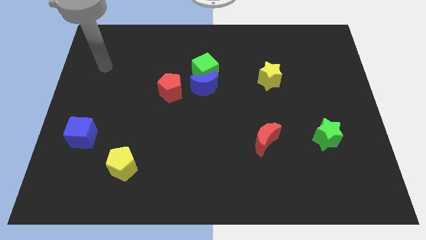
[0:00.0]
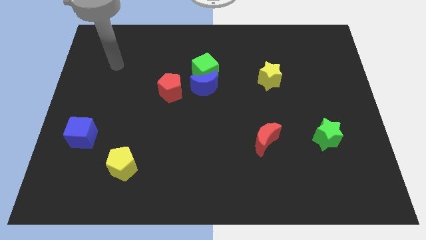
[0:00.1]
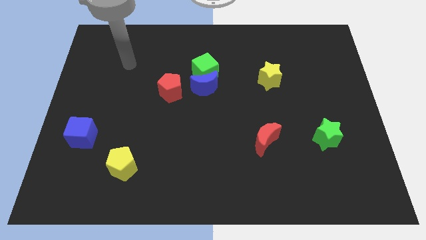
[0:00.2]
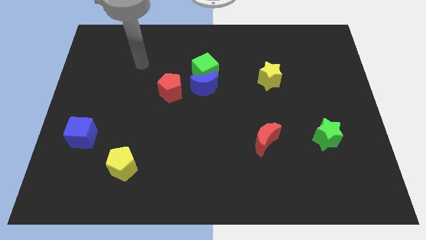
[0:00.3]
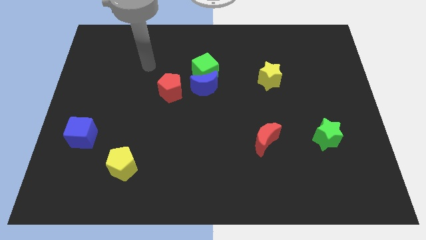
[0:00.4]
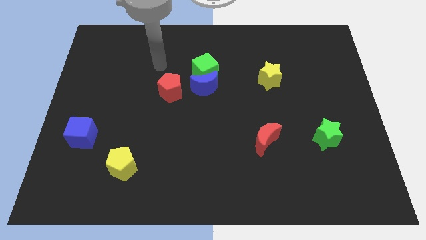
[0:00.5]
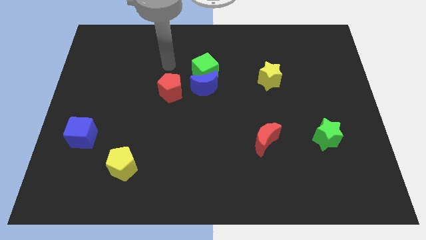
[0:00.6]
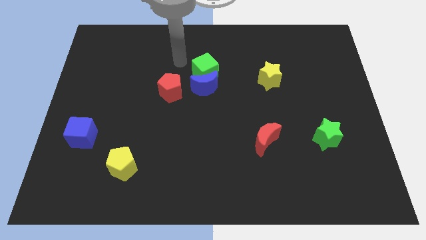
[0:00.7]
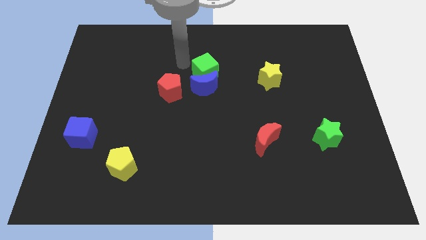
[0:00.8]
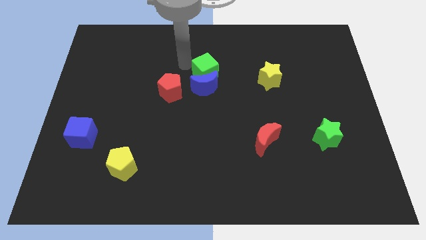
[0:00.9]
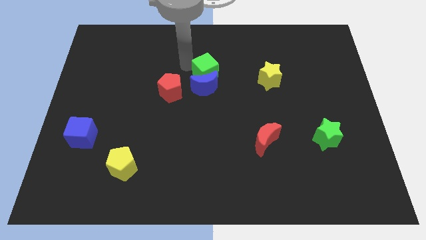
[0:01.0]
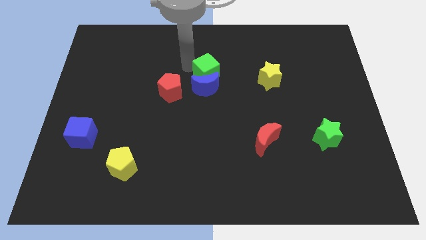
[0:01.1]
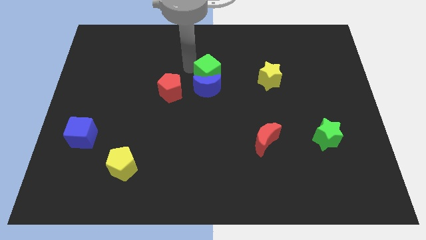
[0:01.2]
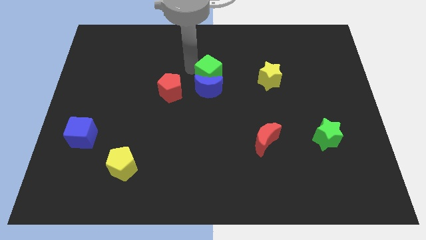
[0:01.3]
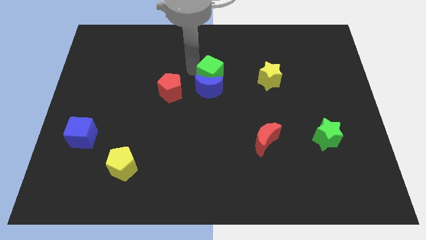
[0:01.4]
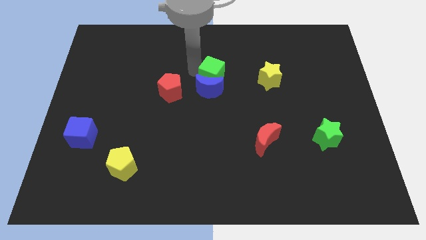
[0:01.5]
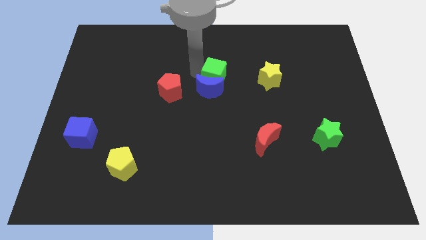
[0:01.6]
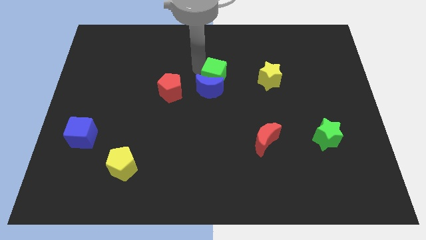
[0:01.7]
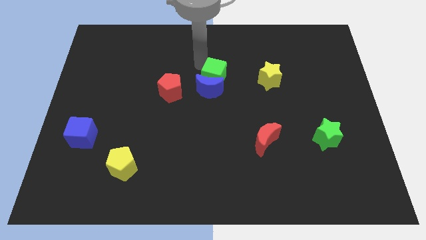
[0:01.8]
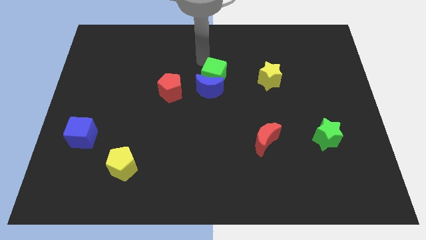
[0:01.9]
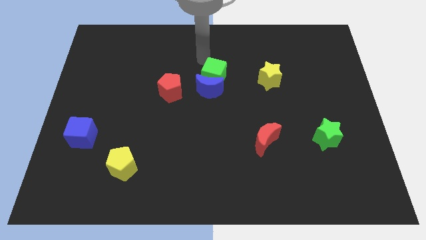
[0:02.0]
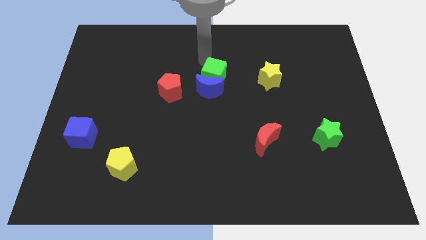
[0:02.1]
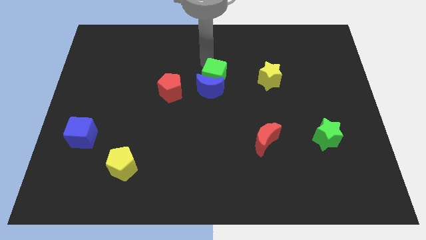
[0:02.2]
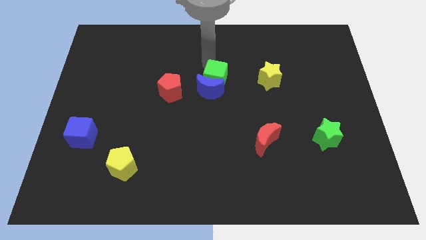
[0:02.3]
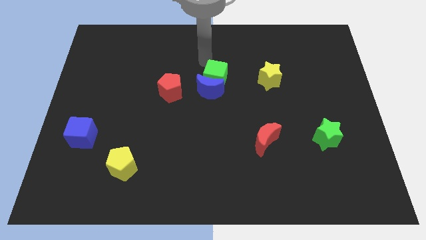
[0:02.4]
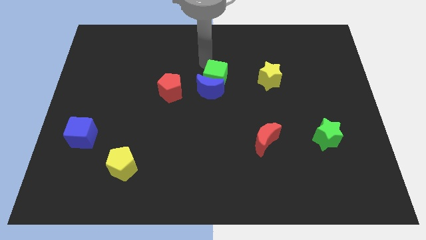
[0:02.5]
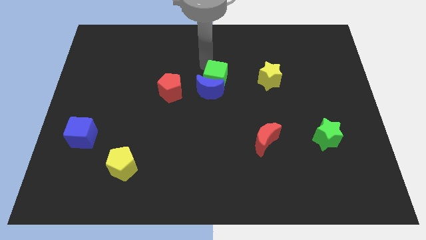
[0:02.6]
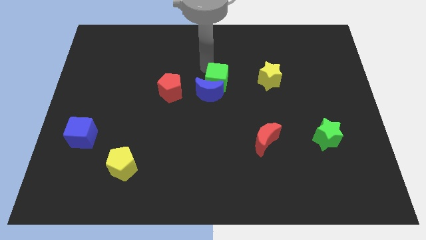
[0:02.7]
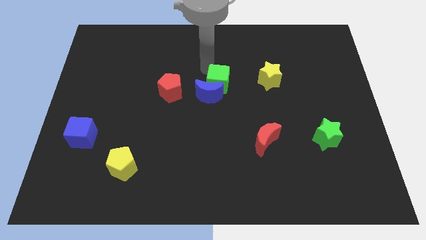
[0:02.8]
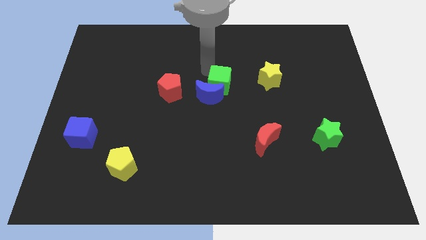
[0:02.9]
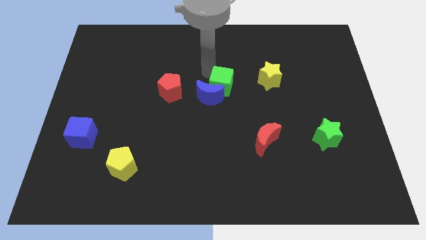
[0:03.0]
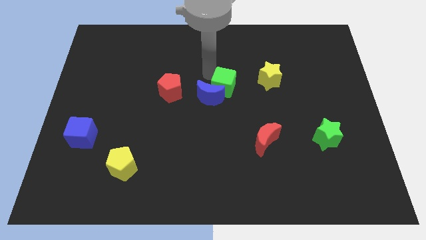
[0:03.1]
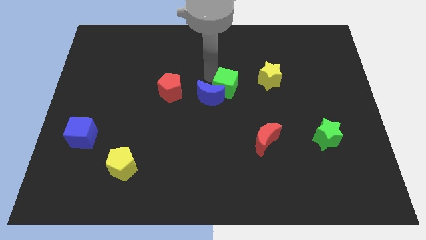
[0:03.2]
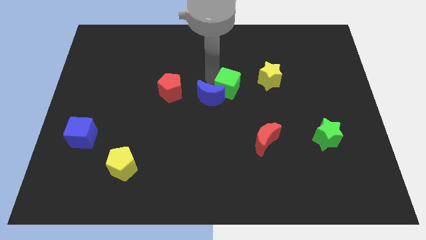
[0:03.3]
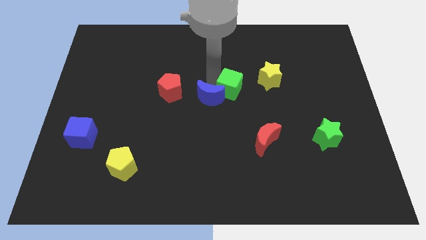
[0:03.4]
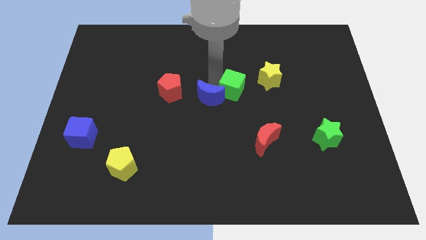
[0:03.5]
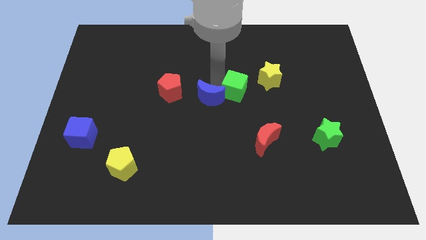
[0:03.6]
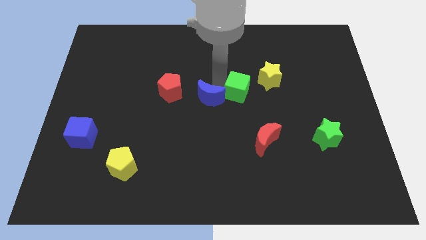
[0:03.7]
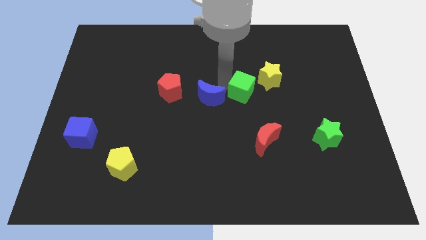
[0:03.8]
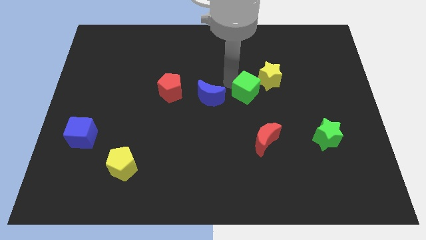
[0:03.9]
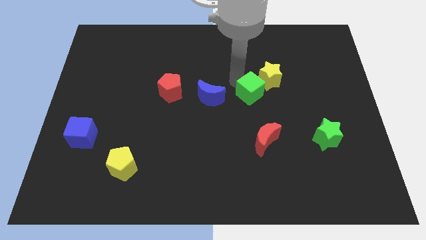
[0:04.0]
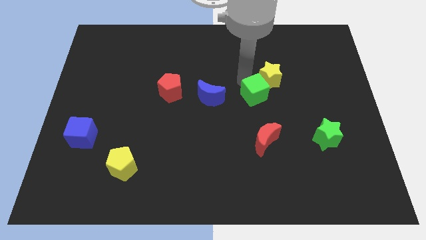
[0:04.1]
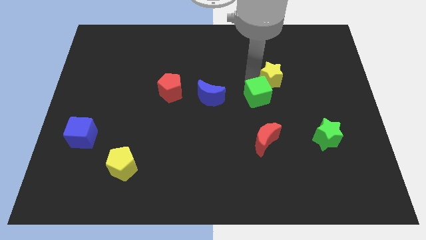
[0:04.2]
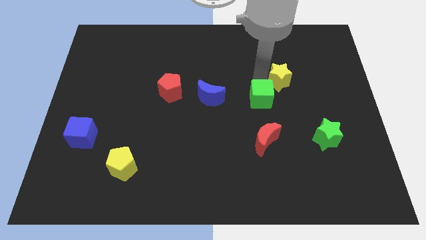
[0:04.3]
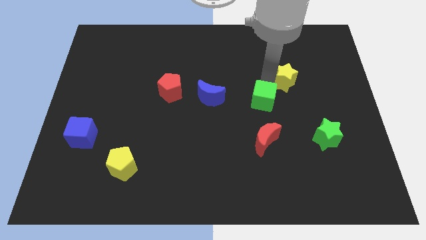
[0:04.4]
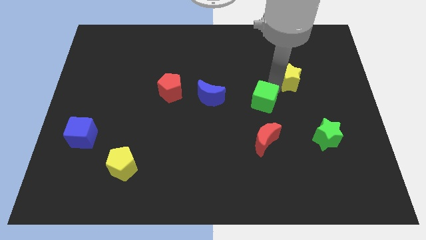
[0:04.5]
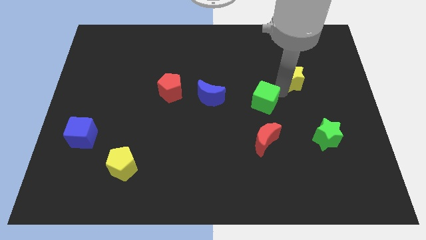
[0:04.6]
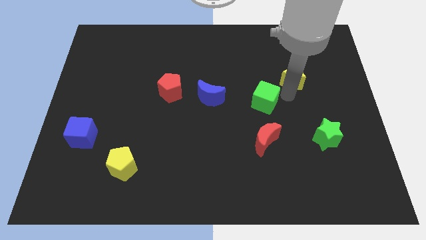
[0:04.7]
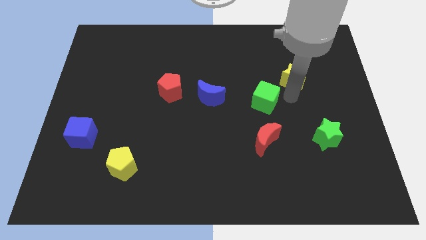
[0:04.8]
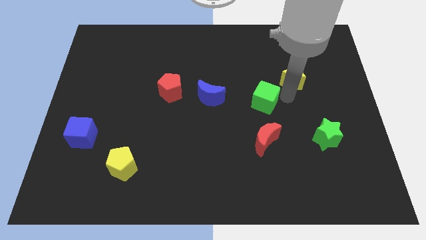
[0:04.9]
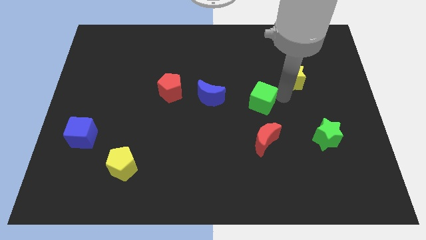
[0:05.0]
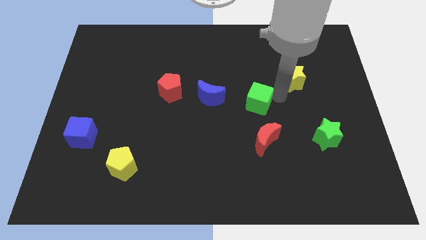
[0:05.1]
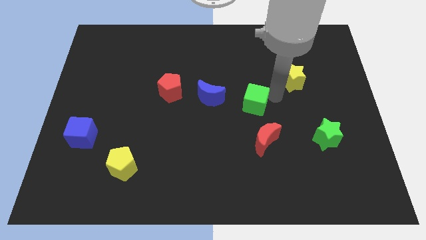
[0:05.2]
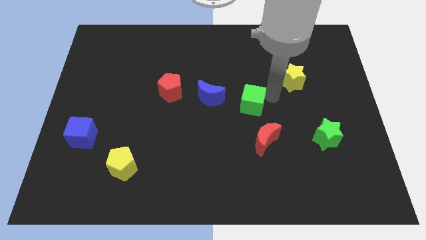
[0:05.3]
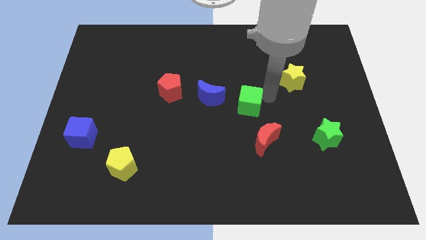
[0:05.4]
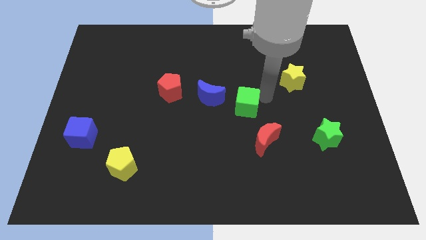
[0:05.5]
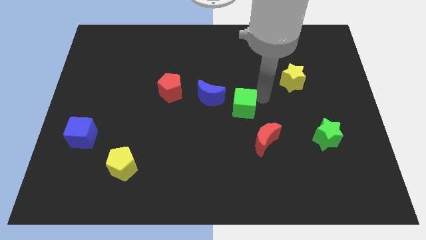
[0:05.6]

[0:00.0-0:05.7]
slide the green cube down slightly

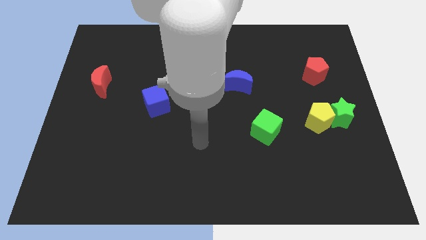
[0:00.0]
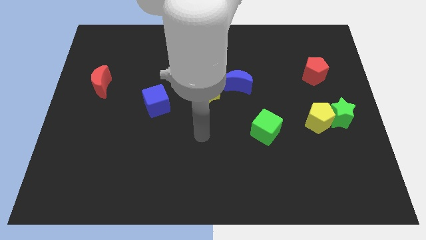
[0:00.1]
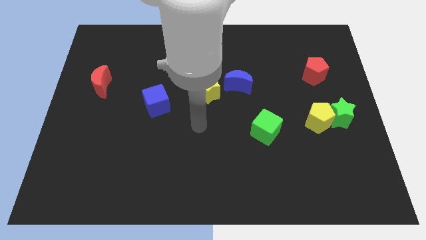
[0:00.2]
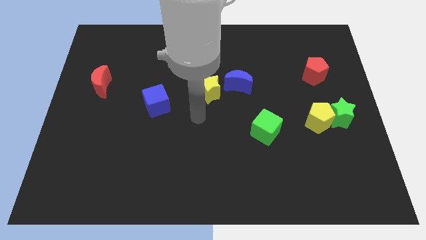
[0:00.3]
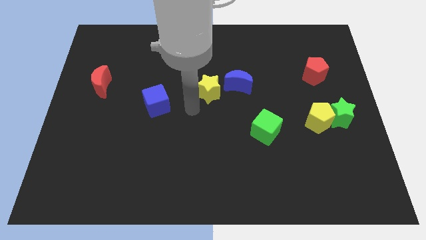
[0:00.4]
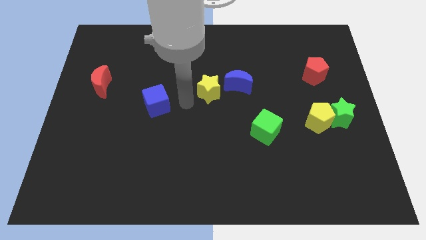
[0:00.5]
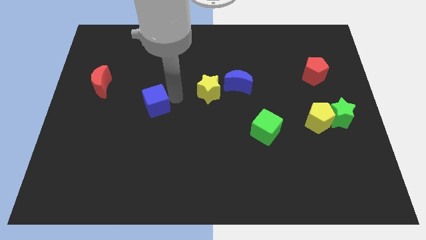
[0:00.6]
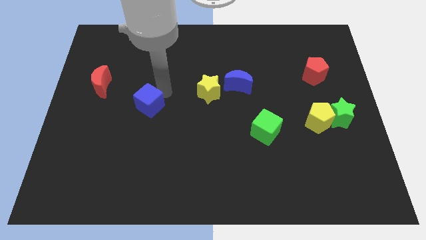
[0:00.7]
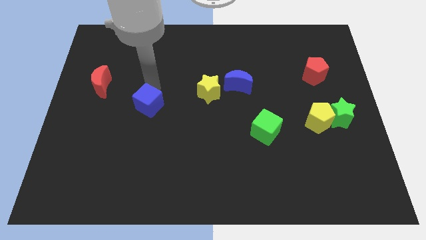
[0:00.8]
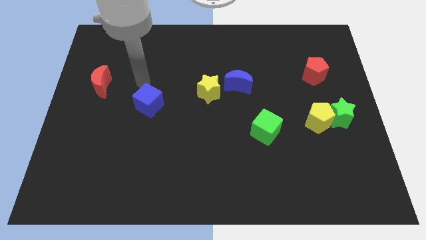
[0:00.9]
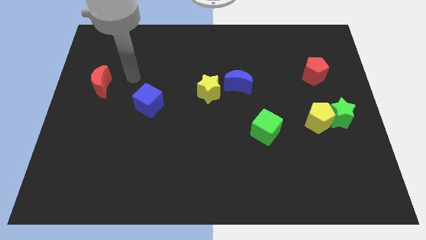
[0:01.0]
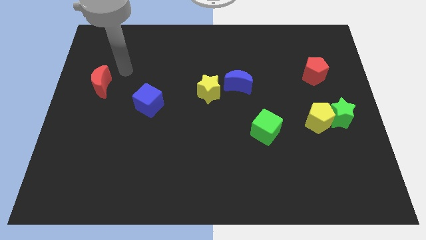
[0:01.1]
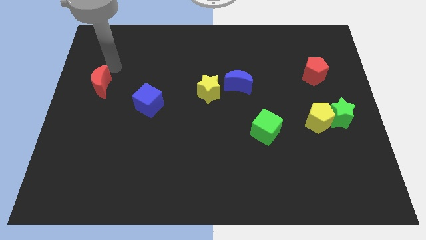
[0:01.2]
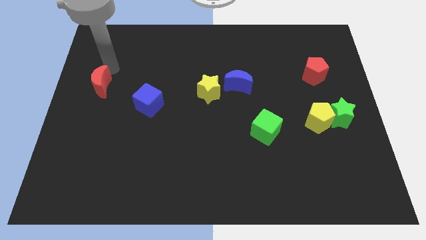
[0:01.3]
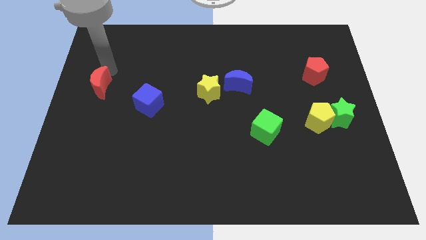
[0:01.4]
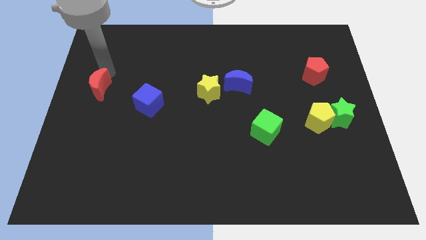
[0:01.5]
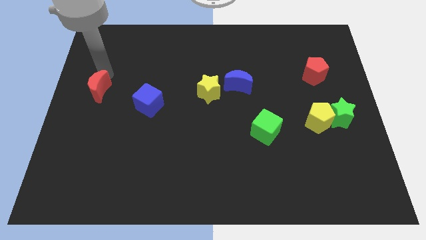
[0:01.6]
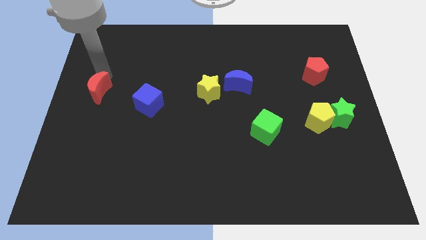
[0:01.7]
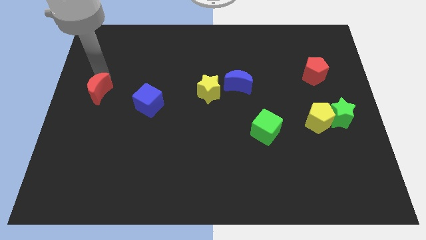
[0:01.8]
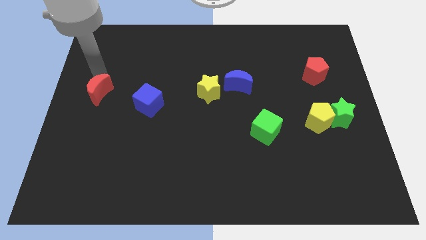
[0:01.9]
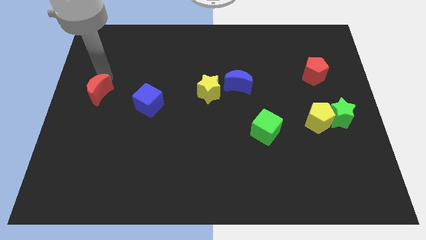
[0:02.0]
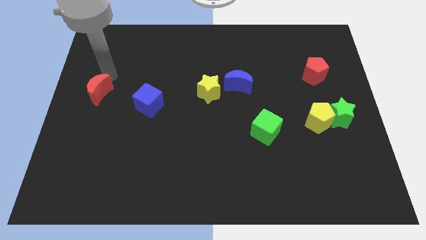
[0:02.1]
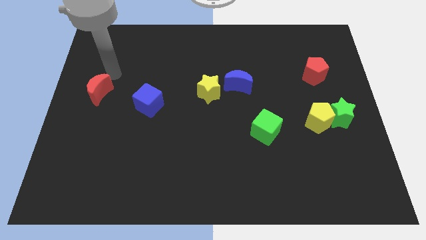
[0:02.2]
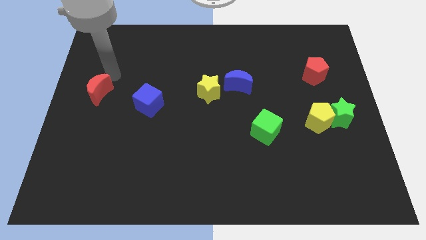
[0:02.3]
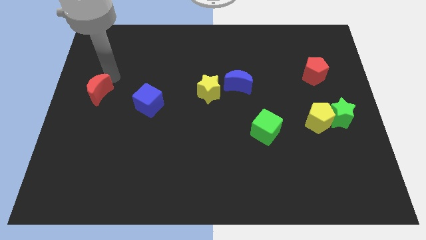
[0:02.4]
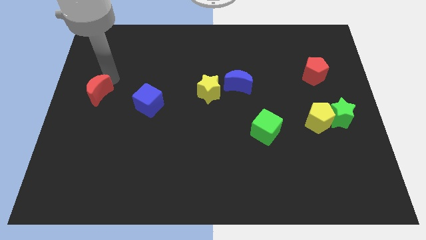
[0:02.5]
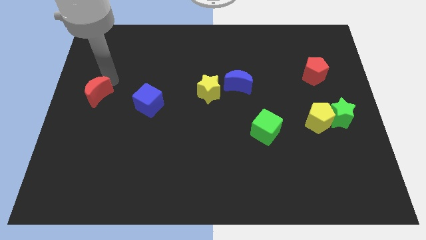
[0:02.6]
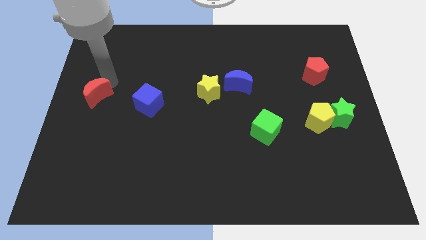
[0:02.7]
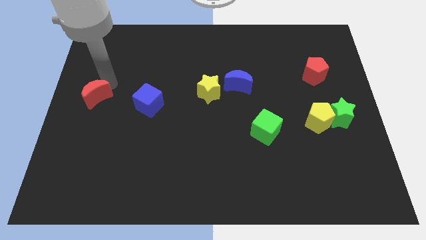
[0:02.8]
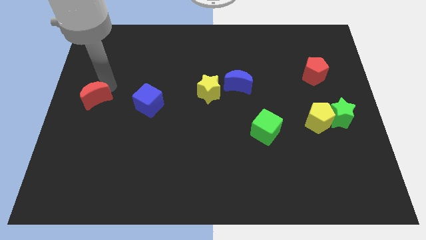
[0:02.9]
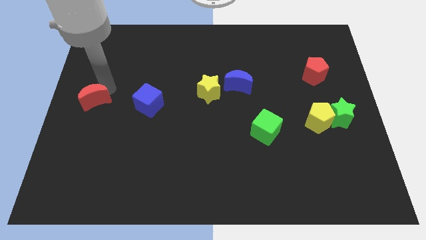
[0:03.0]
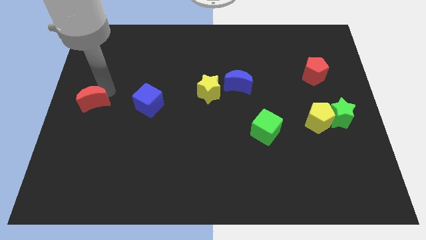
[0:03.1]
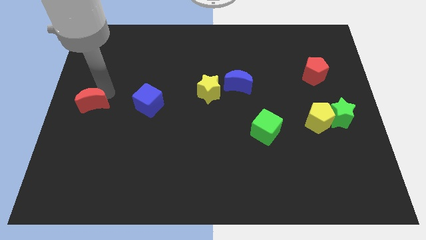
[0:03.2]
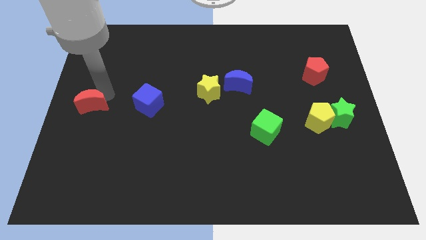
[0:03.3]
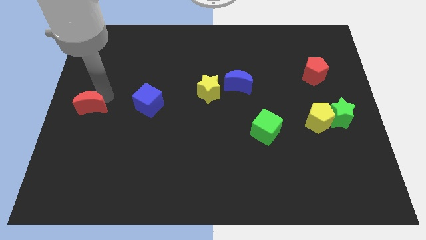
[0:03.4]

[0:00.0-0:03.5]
push the red moon a bit down
